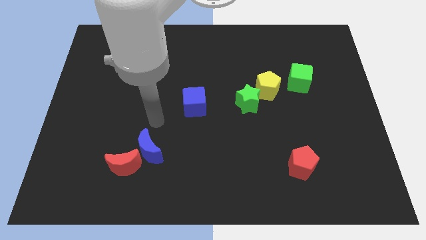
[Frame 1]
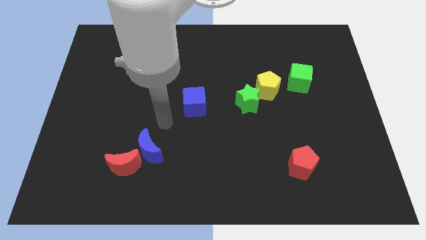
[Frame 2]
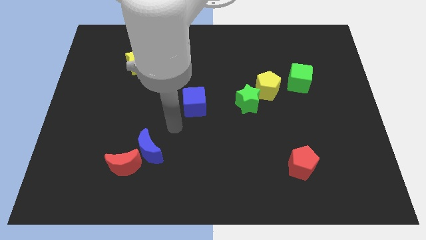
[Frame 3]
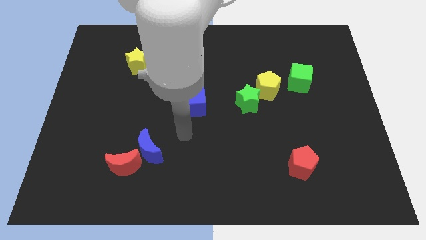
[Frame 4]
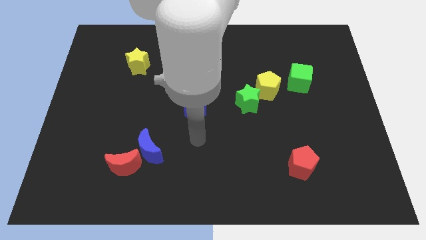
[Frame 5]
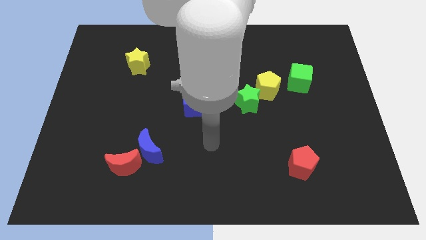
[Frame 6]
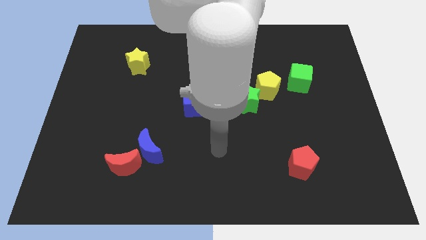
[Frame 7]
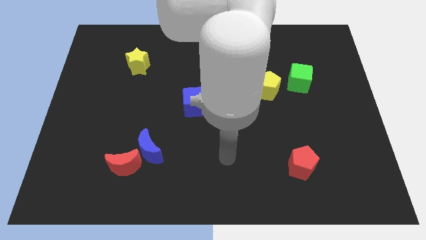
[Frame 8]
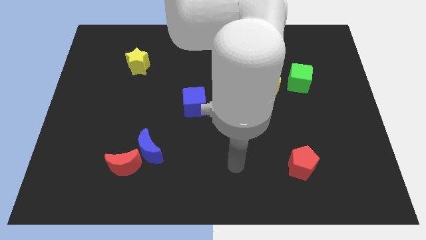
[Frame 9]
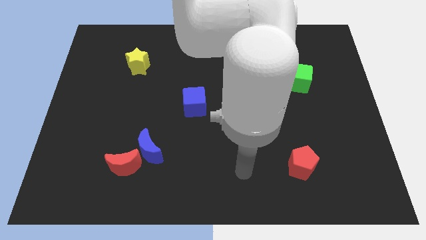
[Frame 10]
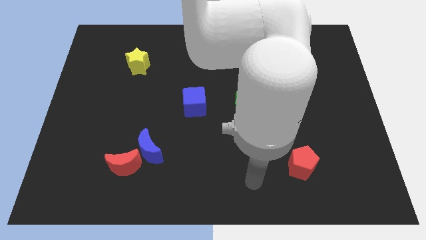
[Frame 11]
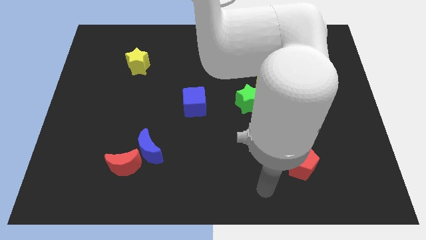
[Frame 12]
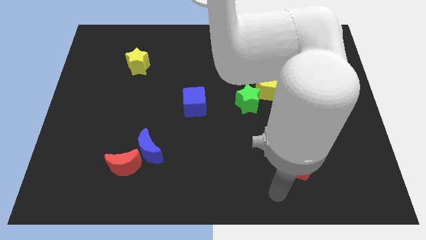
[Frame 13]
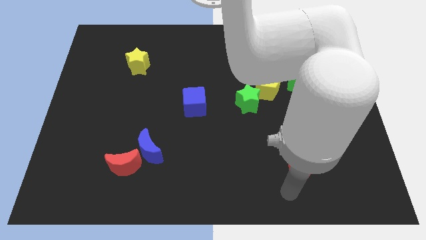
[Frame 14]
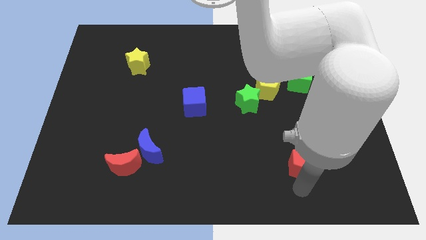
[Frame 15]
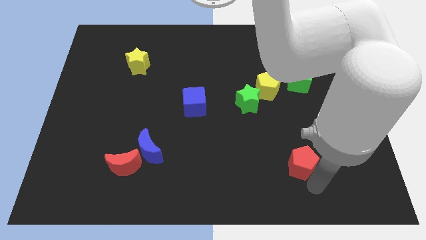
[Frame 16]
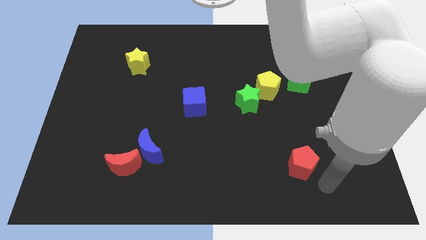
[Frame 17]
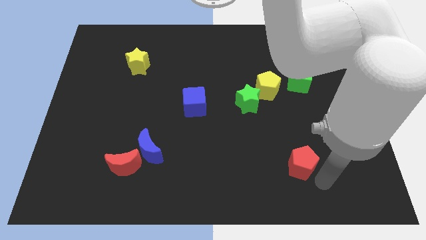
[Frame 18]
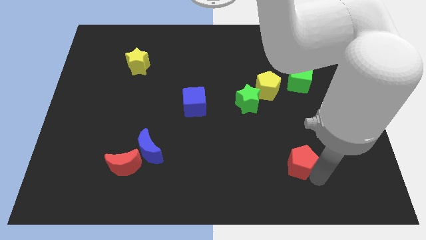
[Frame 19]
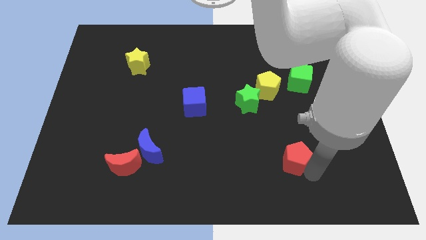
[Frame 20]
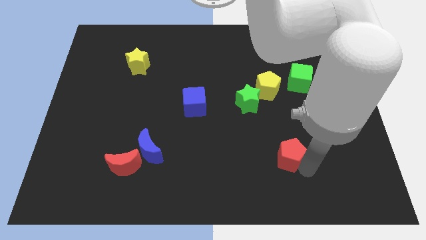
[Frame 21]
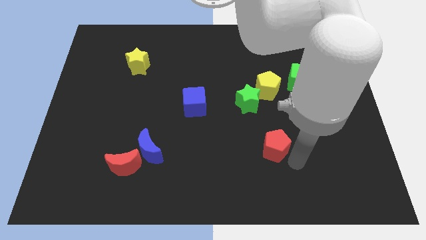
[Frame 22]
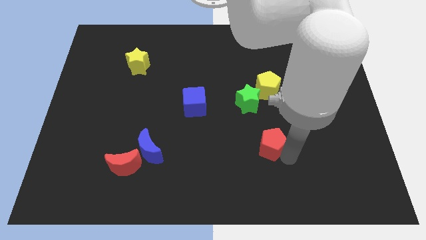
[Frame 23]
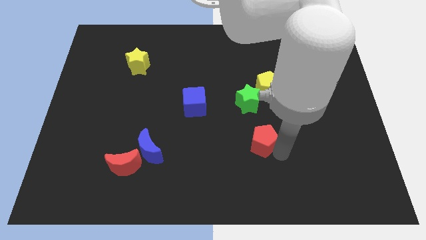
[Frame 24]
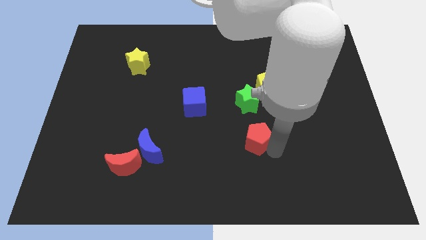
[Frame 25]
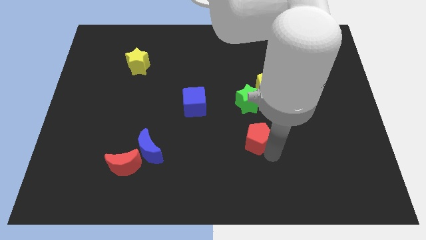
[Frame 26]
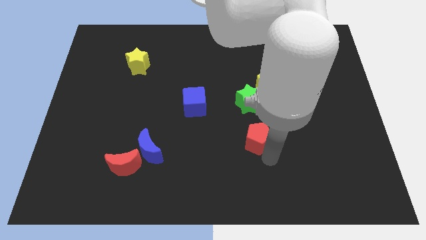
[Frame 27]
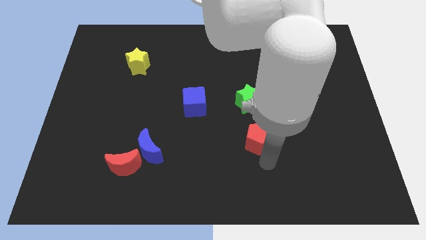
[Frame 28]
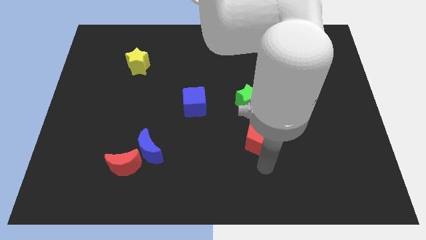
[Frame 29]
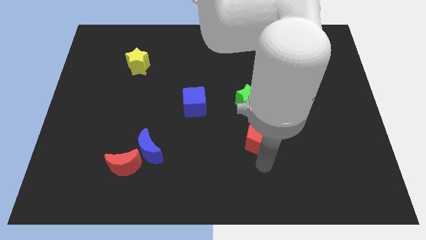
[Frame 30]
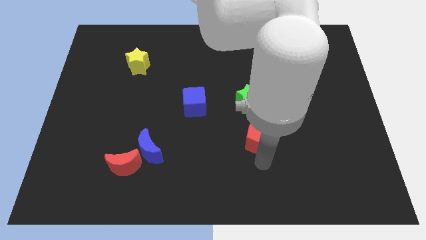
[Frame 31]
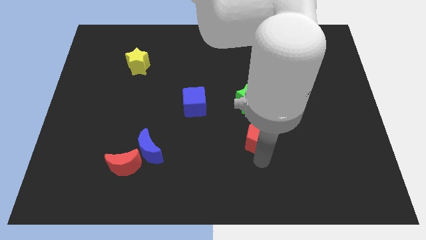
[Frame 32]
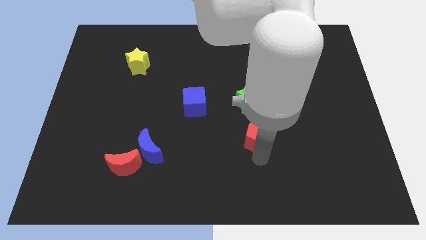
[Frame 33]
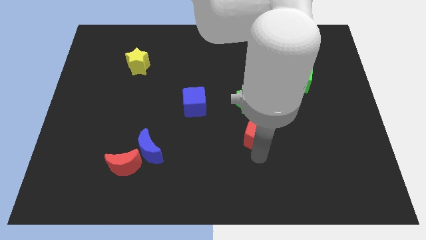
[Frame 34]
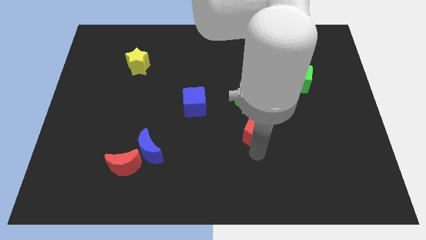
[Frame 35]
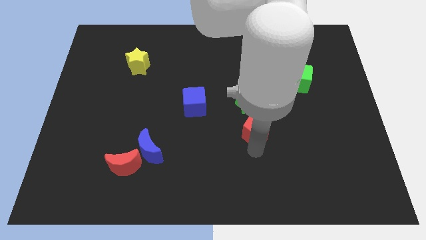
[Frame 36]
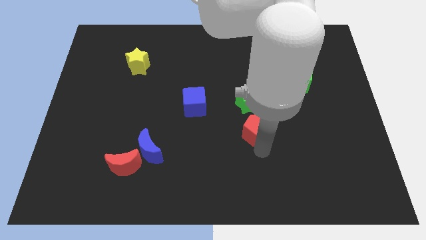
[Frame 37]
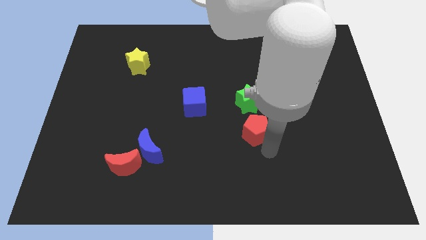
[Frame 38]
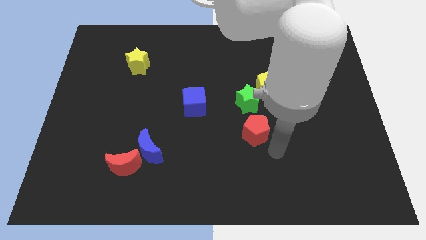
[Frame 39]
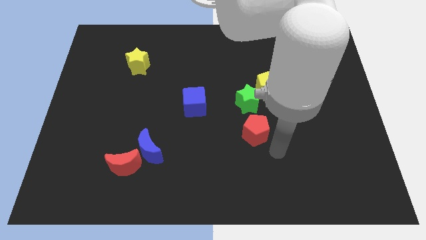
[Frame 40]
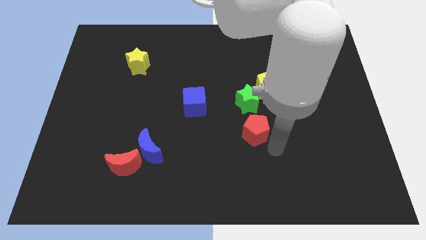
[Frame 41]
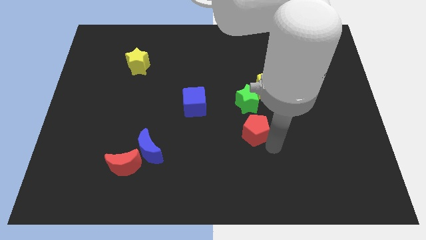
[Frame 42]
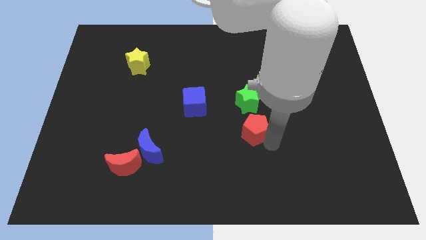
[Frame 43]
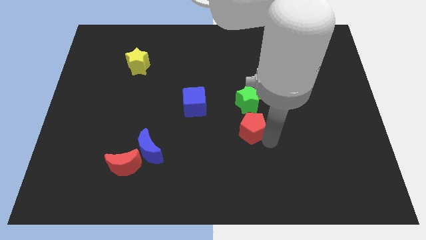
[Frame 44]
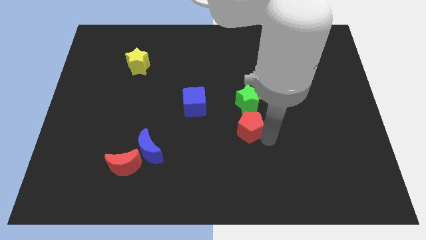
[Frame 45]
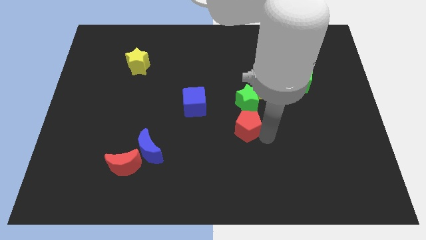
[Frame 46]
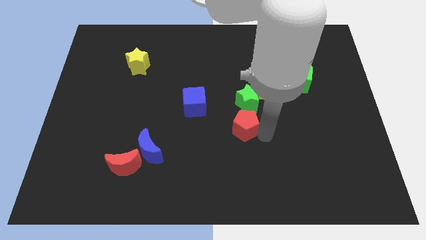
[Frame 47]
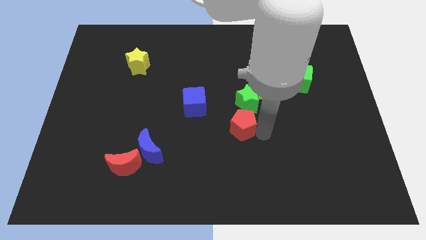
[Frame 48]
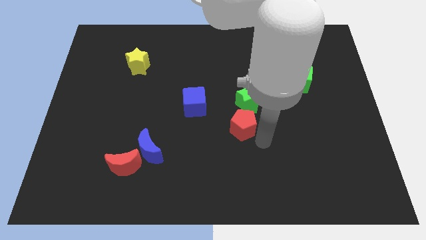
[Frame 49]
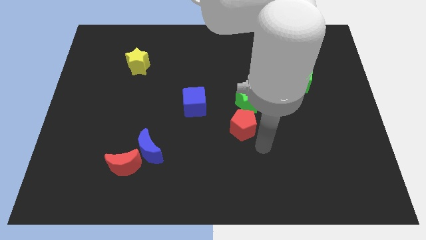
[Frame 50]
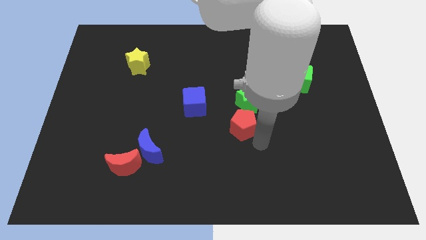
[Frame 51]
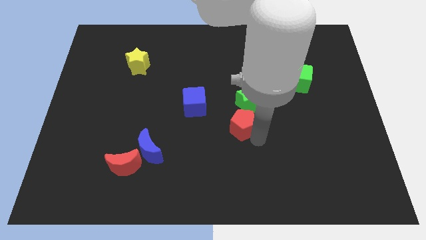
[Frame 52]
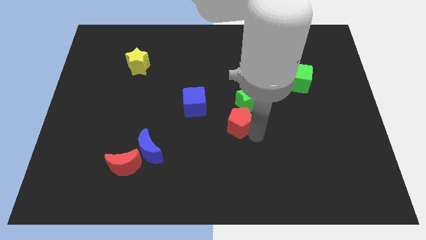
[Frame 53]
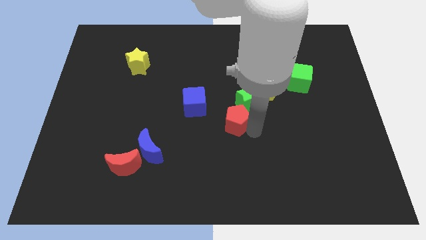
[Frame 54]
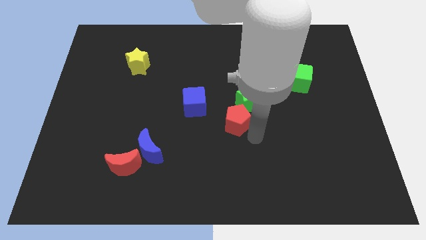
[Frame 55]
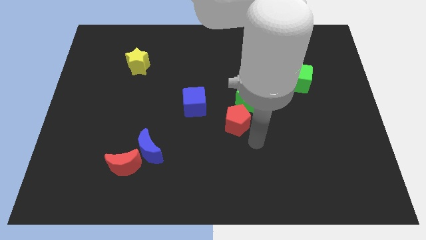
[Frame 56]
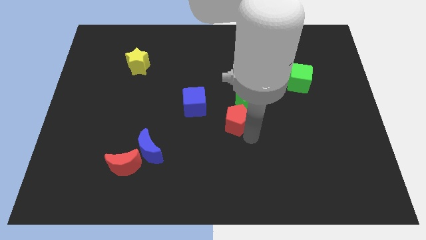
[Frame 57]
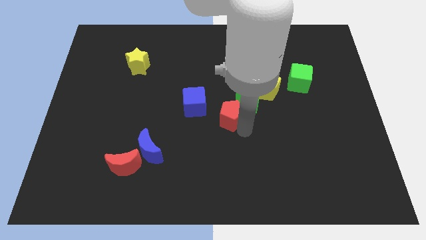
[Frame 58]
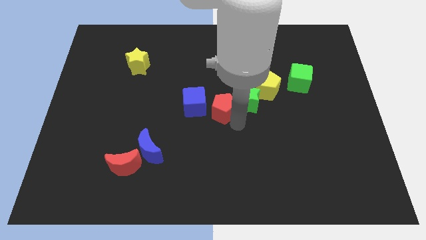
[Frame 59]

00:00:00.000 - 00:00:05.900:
slide the red pentagon up and left

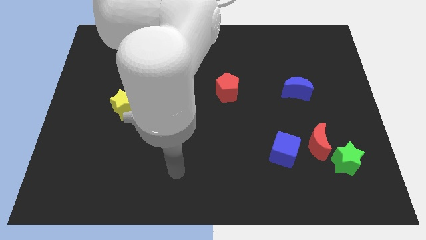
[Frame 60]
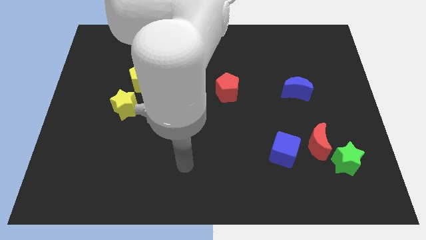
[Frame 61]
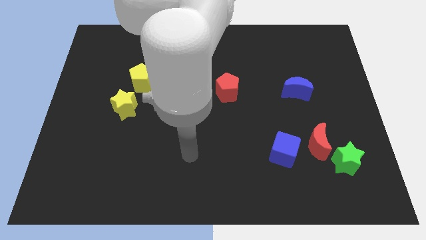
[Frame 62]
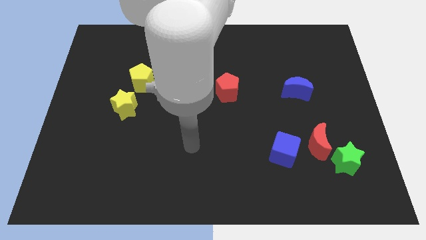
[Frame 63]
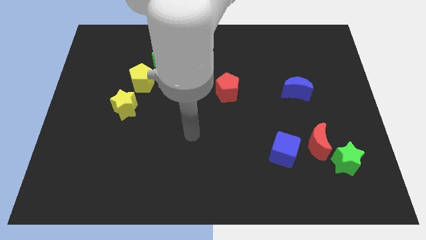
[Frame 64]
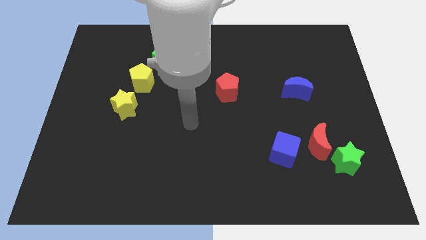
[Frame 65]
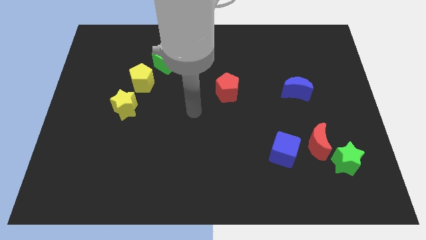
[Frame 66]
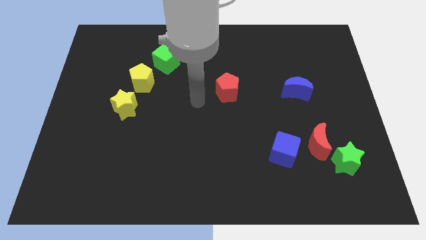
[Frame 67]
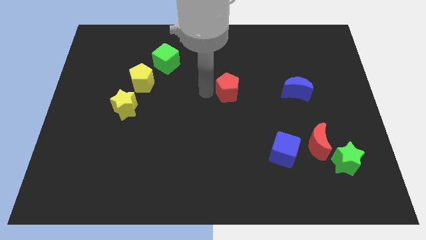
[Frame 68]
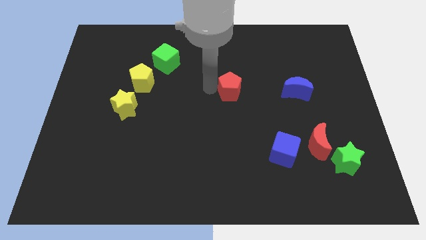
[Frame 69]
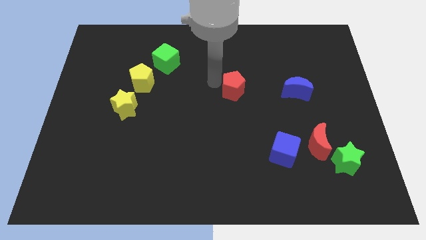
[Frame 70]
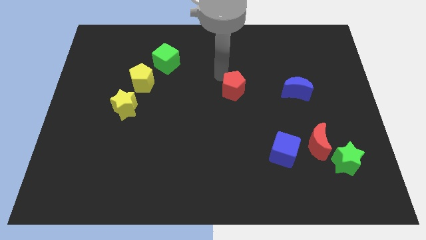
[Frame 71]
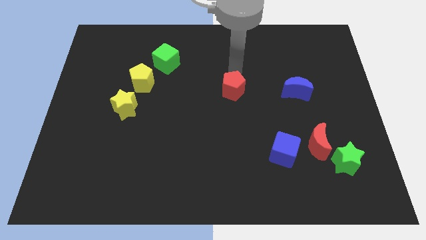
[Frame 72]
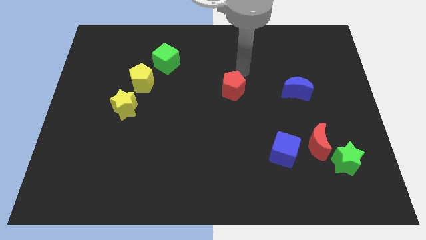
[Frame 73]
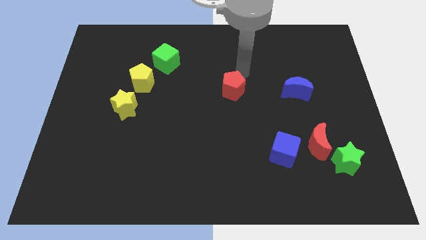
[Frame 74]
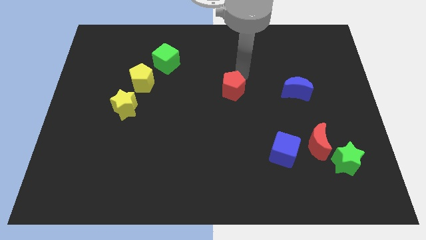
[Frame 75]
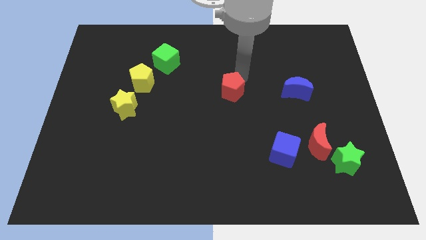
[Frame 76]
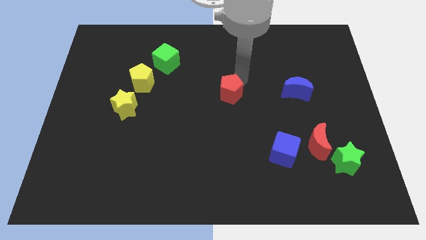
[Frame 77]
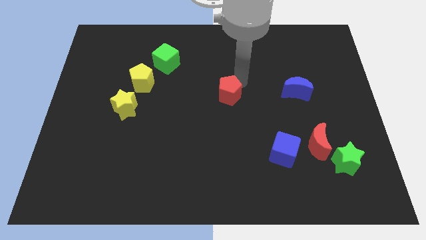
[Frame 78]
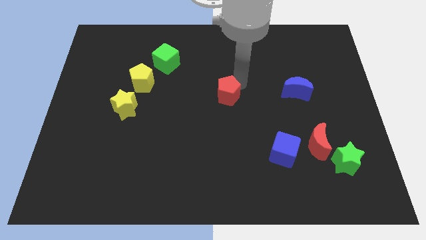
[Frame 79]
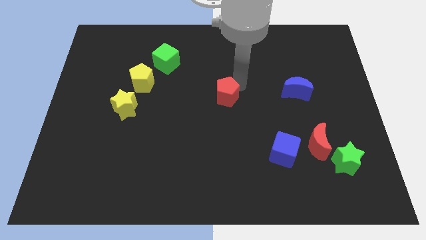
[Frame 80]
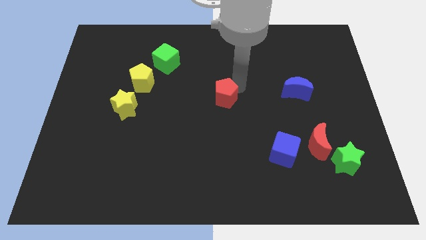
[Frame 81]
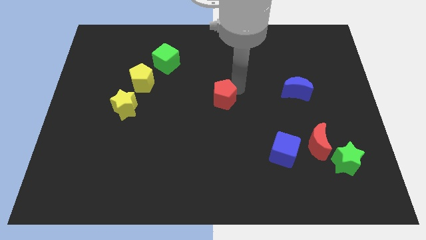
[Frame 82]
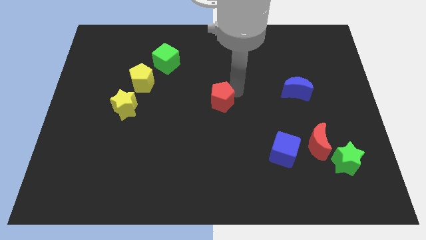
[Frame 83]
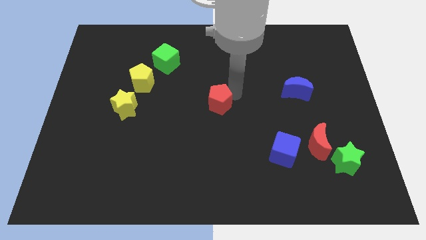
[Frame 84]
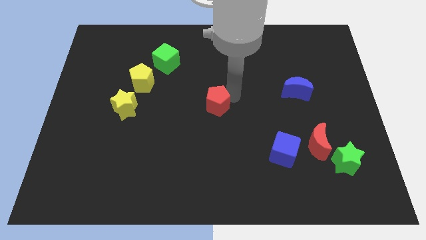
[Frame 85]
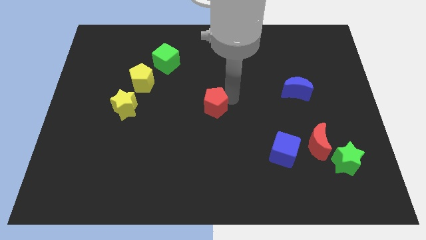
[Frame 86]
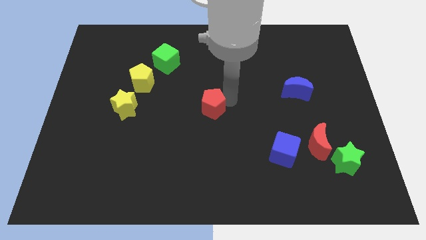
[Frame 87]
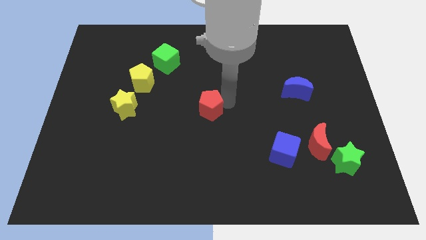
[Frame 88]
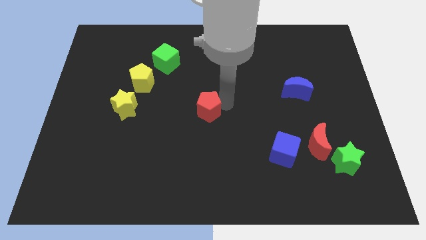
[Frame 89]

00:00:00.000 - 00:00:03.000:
slide the red pentagon diagonally down and left somewhat
